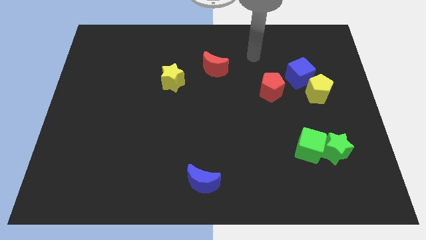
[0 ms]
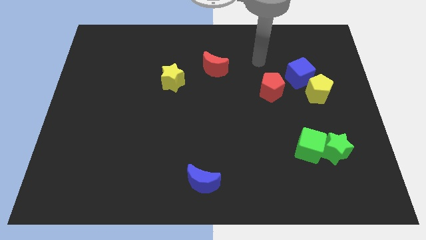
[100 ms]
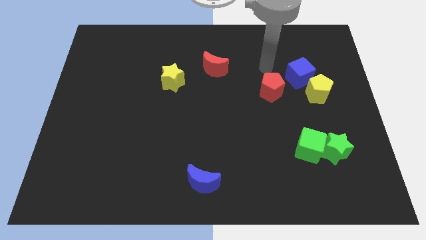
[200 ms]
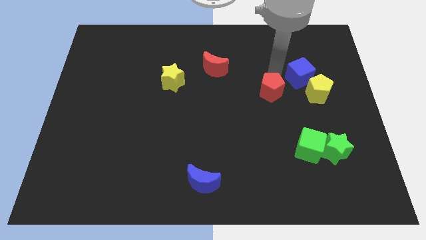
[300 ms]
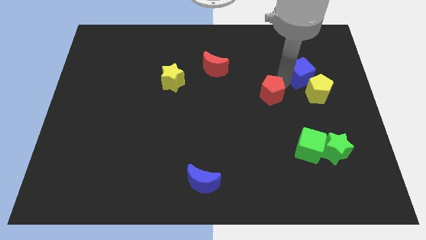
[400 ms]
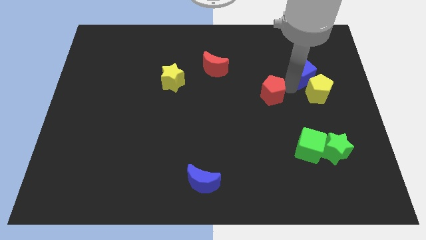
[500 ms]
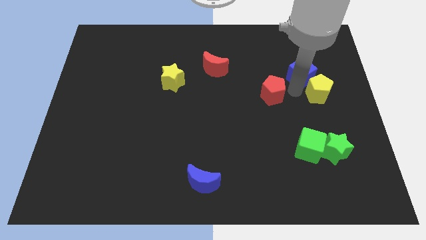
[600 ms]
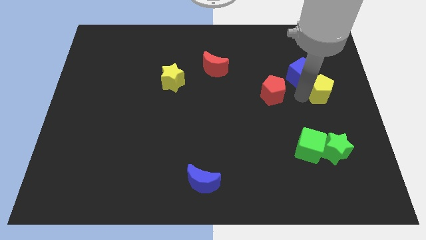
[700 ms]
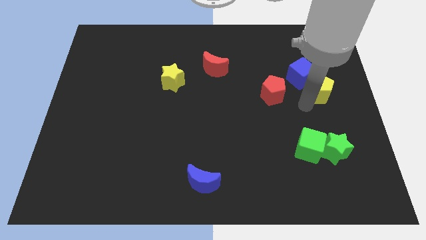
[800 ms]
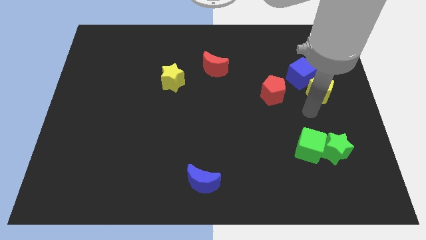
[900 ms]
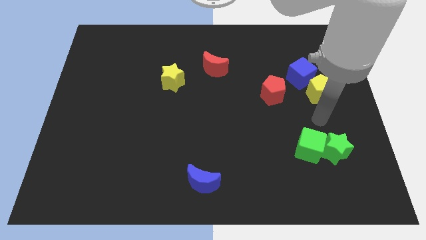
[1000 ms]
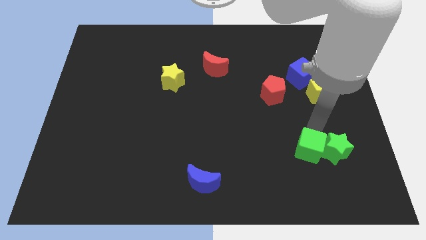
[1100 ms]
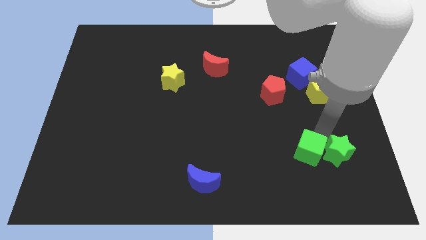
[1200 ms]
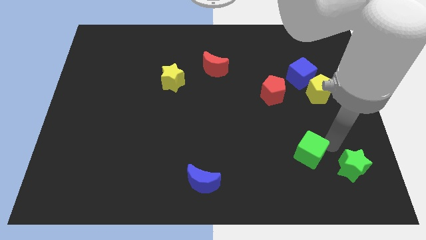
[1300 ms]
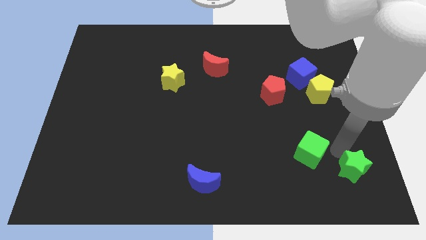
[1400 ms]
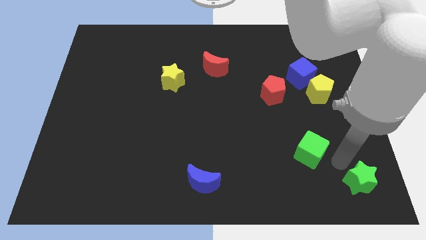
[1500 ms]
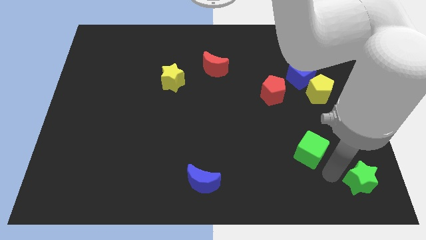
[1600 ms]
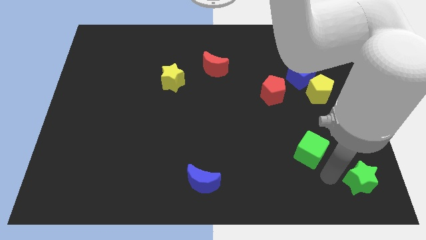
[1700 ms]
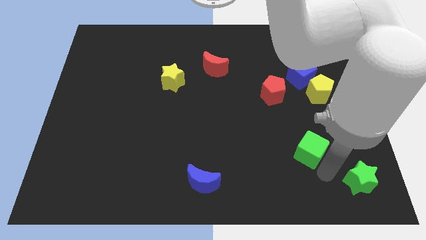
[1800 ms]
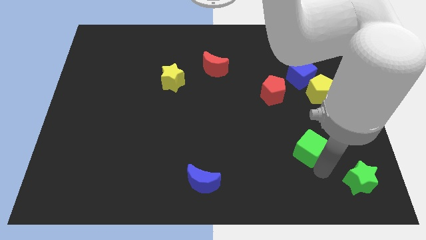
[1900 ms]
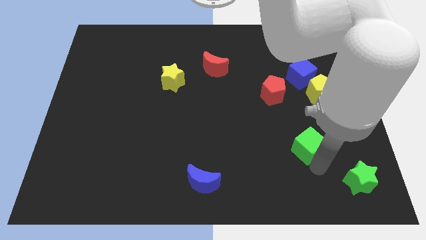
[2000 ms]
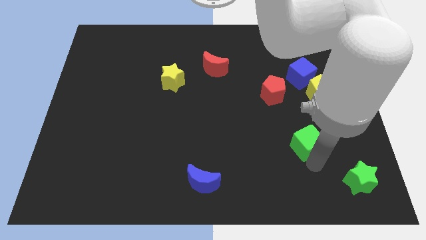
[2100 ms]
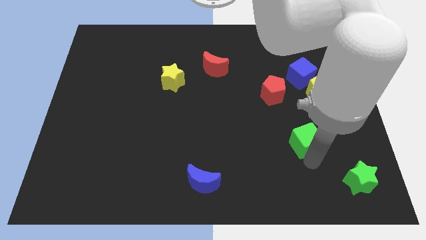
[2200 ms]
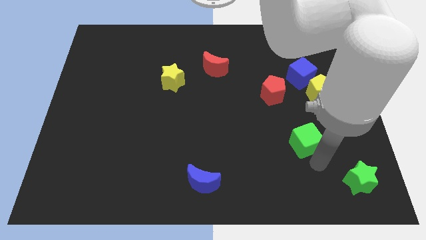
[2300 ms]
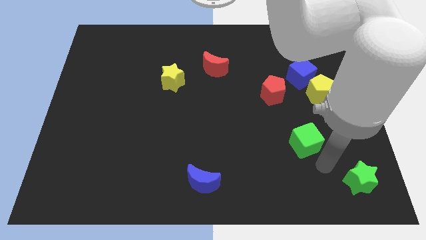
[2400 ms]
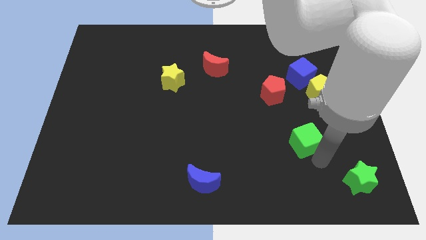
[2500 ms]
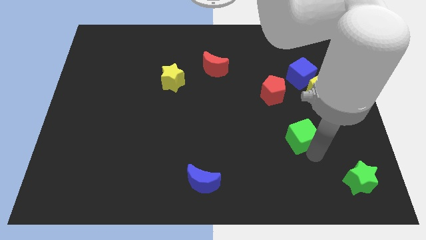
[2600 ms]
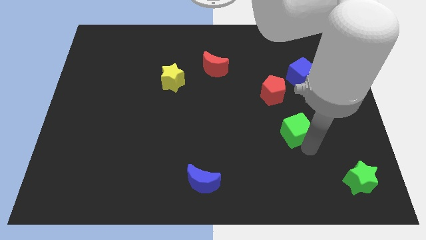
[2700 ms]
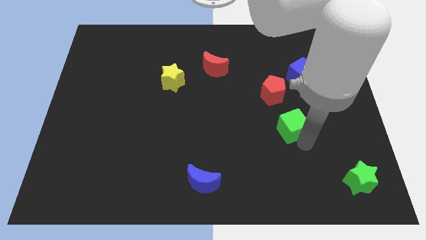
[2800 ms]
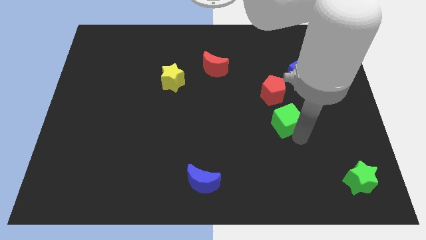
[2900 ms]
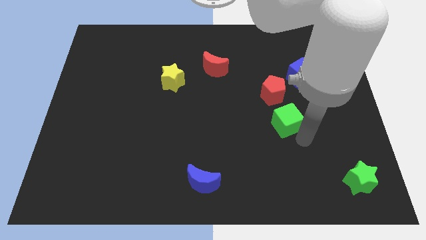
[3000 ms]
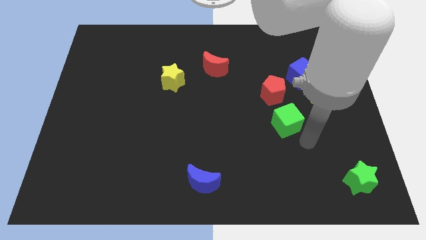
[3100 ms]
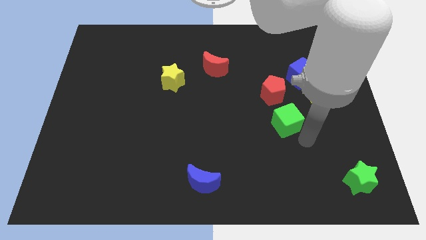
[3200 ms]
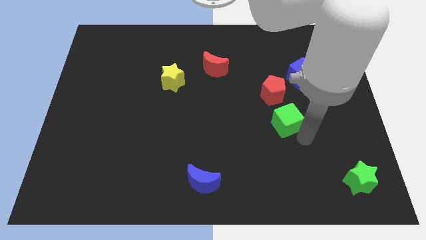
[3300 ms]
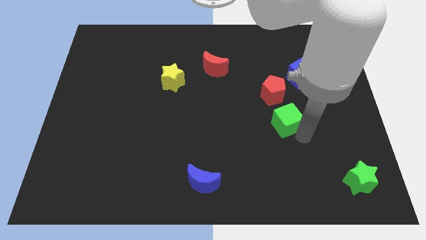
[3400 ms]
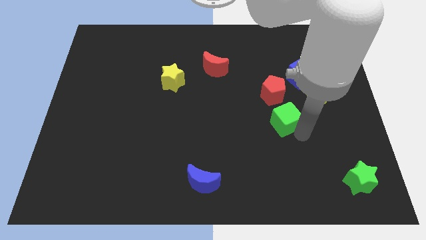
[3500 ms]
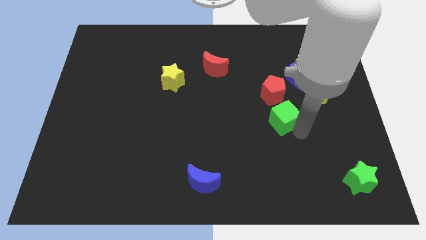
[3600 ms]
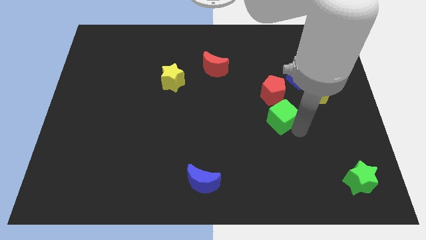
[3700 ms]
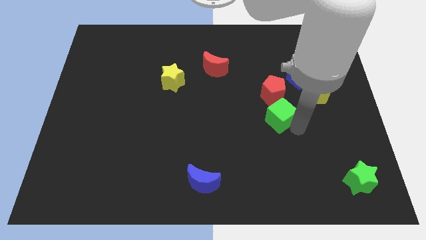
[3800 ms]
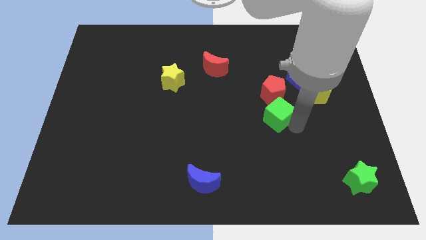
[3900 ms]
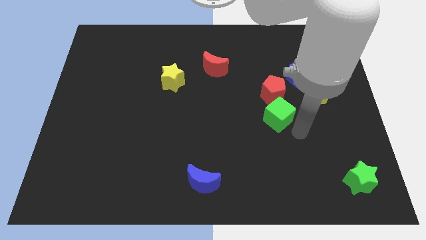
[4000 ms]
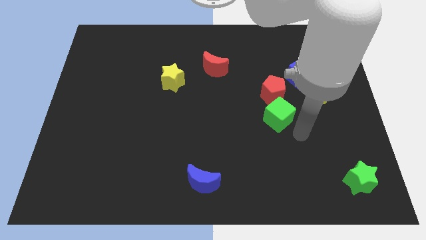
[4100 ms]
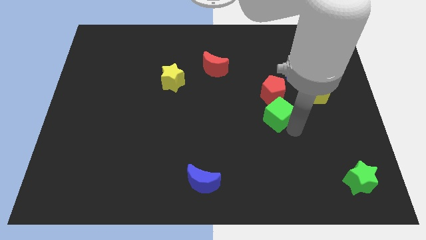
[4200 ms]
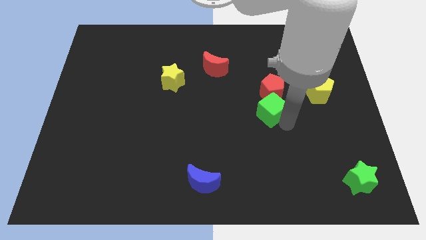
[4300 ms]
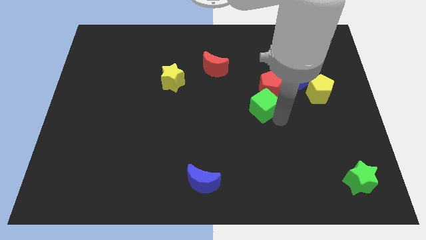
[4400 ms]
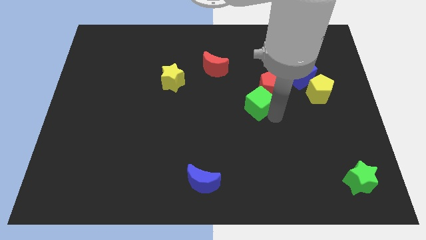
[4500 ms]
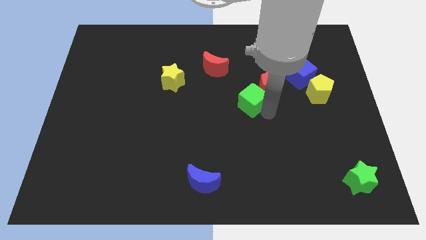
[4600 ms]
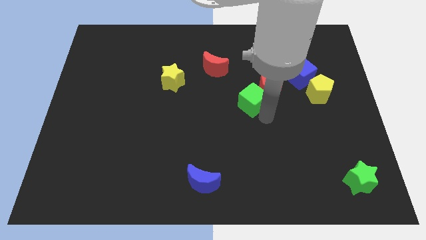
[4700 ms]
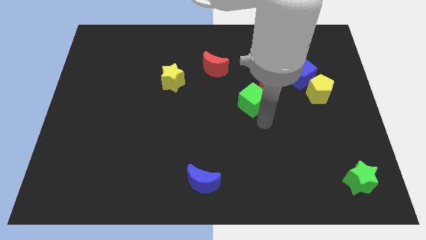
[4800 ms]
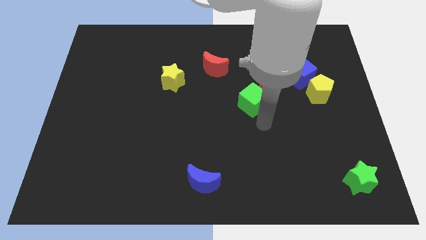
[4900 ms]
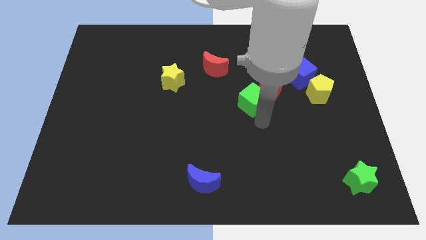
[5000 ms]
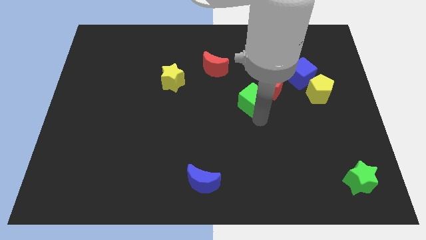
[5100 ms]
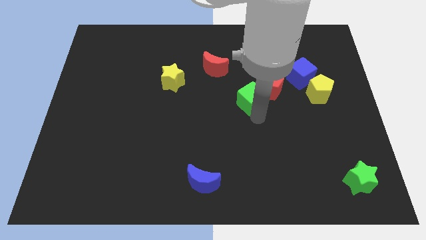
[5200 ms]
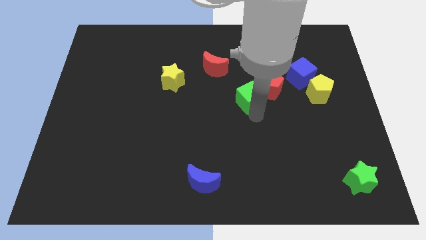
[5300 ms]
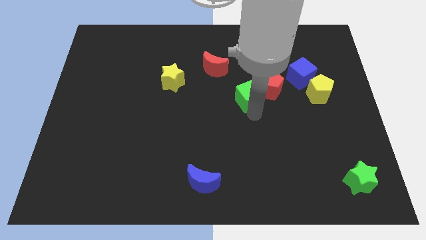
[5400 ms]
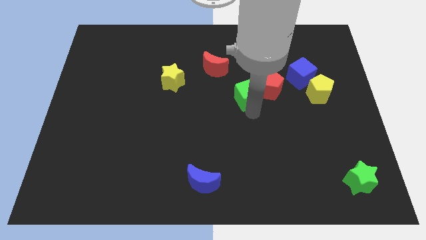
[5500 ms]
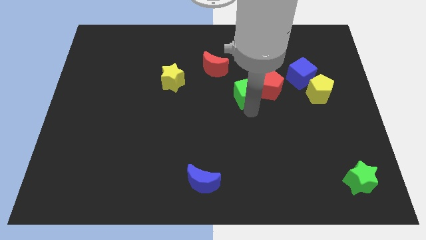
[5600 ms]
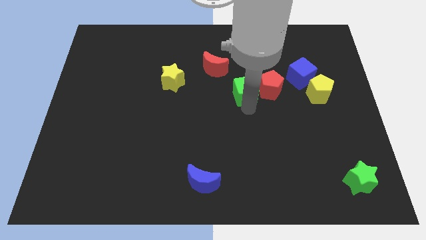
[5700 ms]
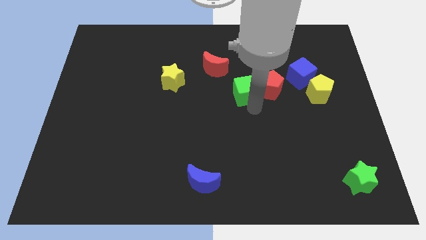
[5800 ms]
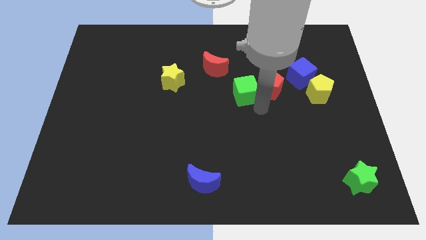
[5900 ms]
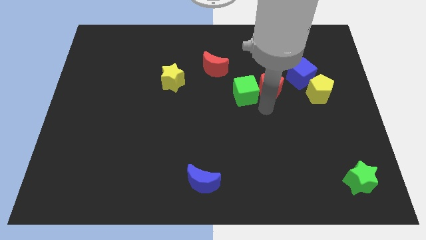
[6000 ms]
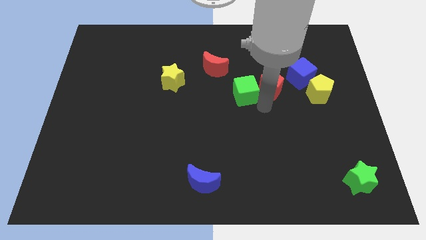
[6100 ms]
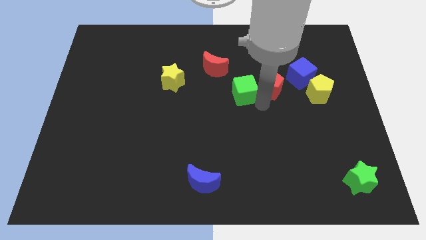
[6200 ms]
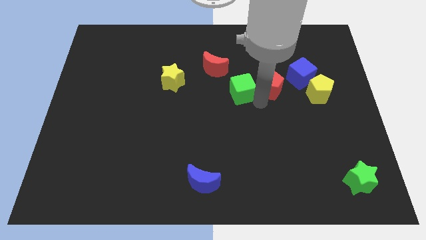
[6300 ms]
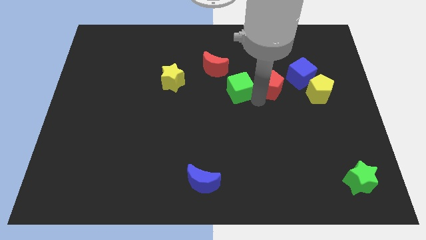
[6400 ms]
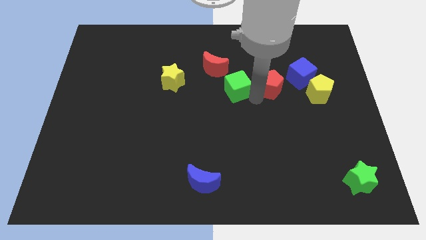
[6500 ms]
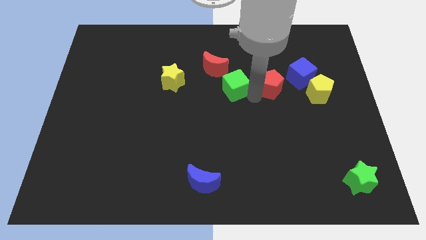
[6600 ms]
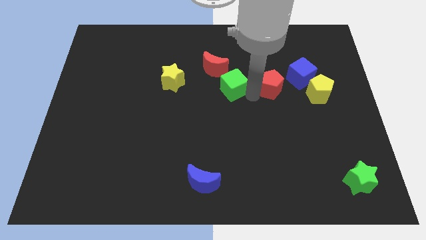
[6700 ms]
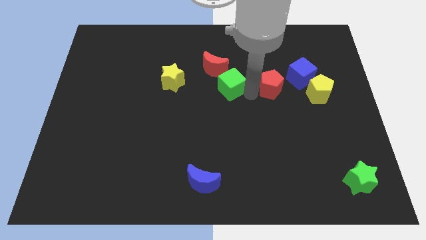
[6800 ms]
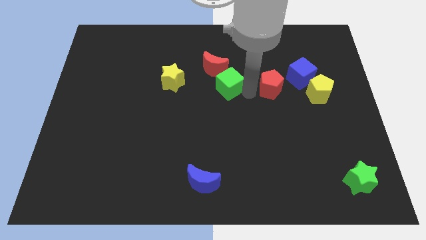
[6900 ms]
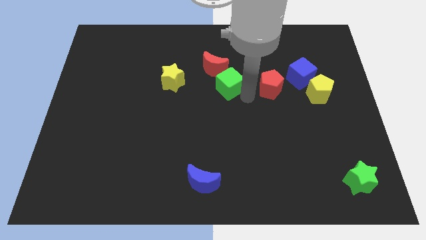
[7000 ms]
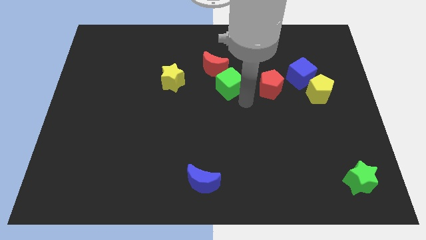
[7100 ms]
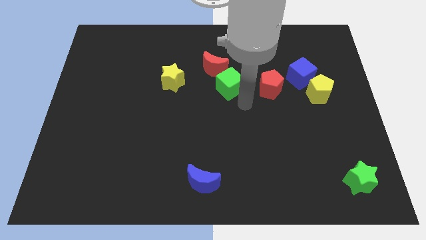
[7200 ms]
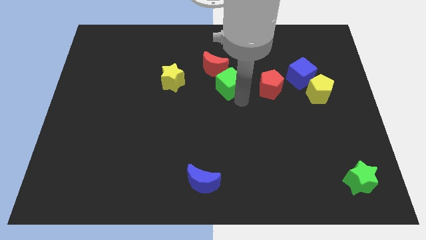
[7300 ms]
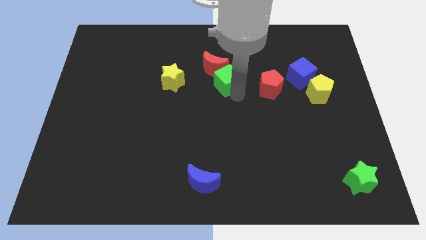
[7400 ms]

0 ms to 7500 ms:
push the green cube towards the red moon
